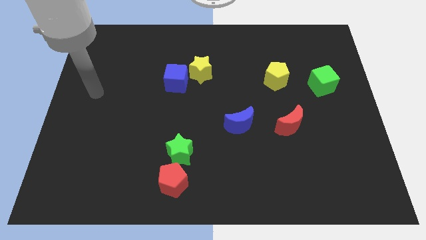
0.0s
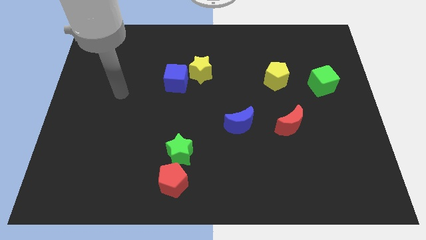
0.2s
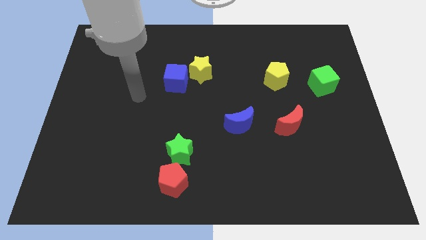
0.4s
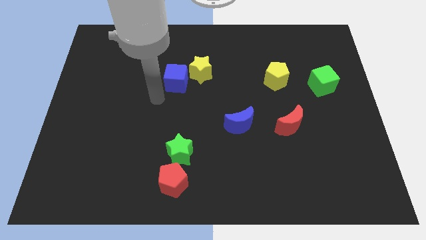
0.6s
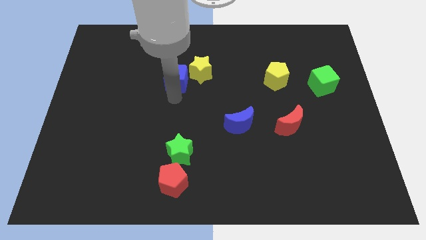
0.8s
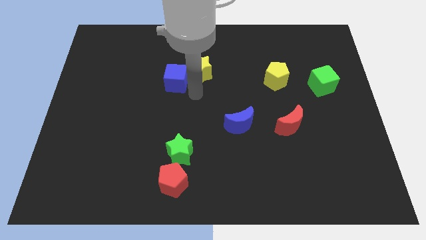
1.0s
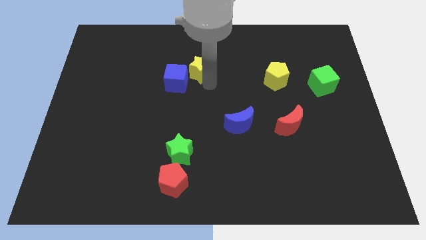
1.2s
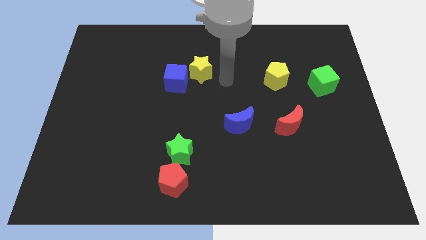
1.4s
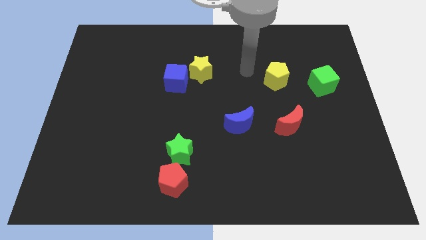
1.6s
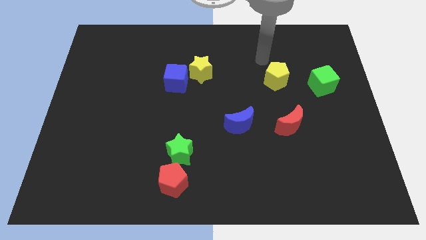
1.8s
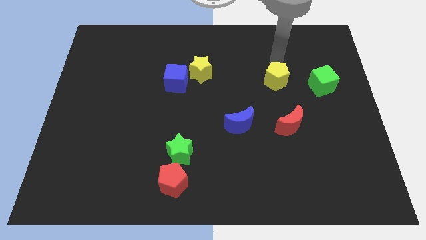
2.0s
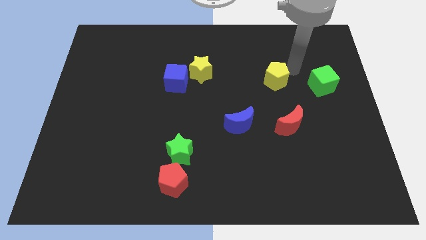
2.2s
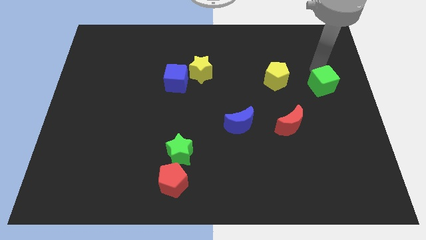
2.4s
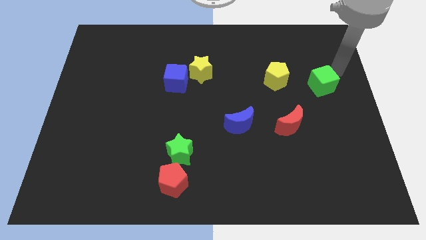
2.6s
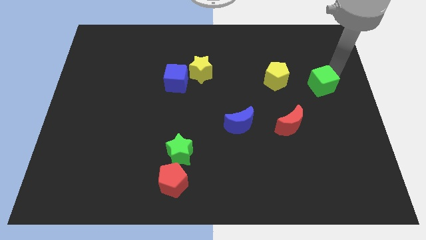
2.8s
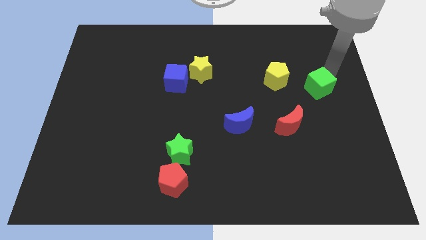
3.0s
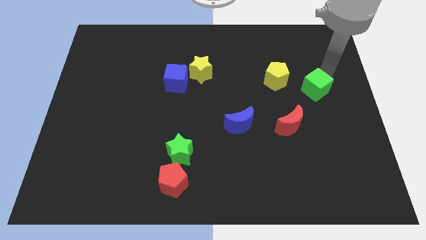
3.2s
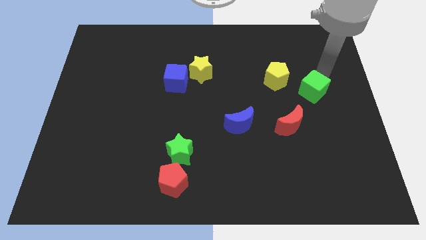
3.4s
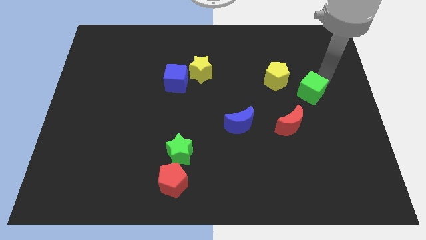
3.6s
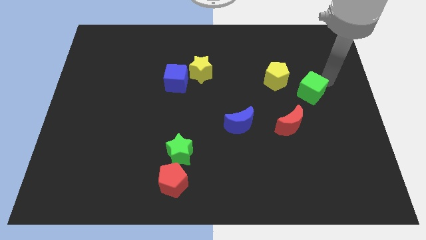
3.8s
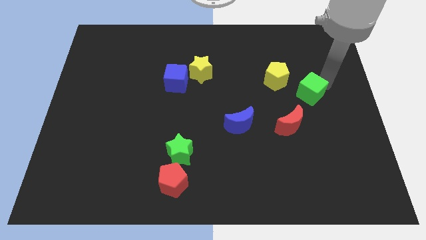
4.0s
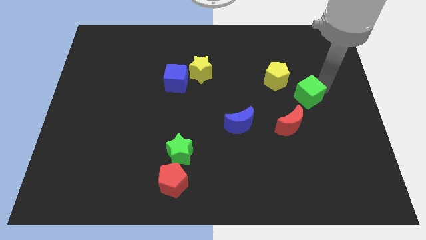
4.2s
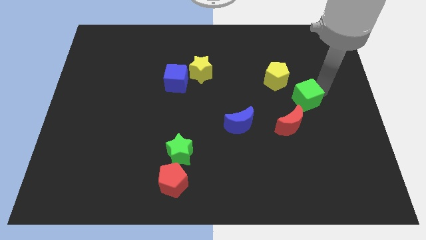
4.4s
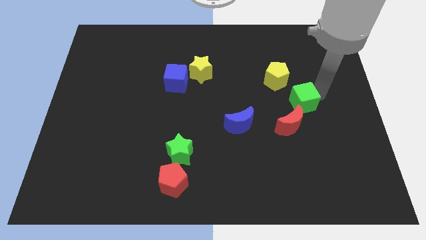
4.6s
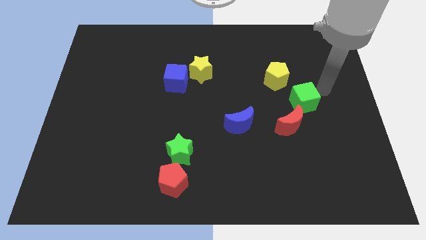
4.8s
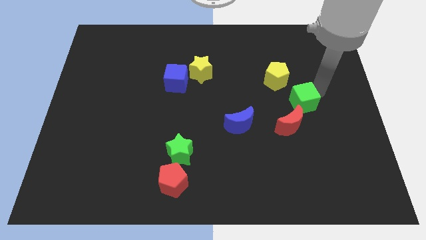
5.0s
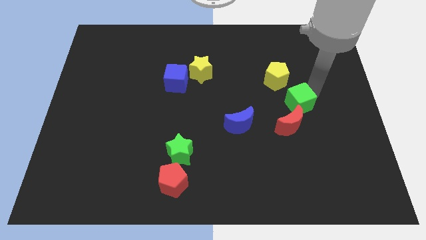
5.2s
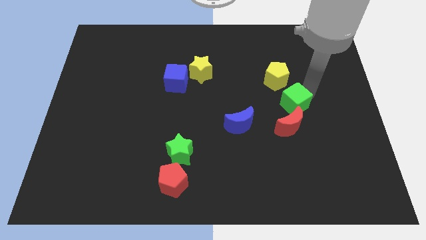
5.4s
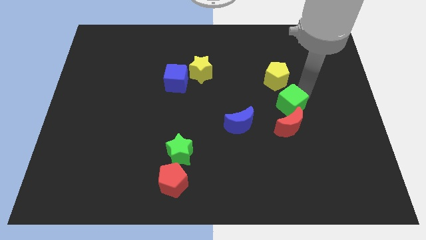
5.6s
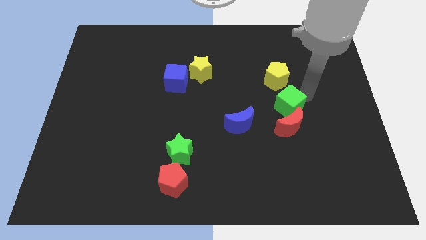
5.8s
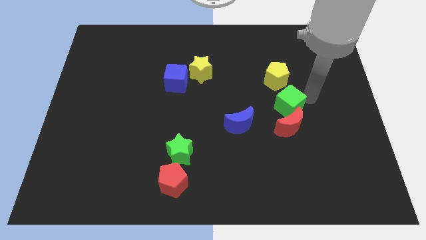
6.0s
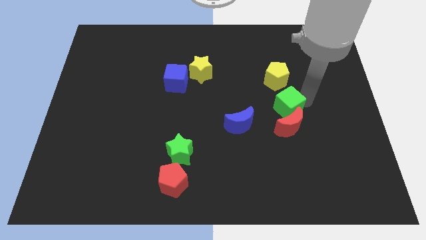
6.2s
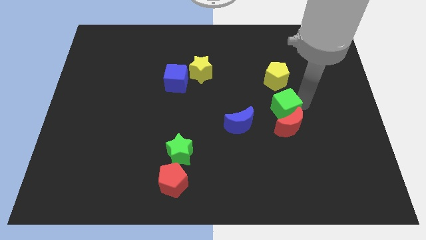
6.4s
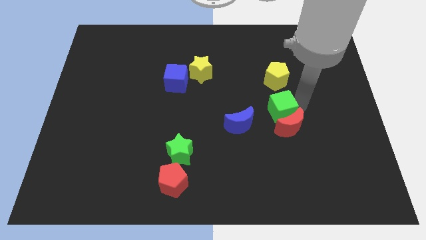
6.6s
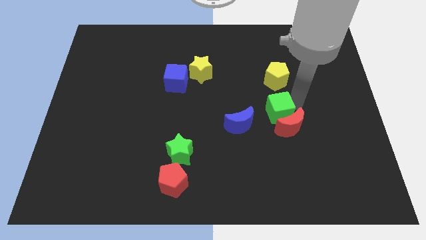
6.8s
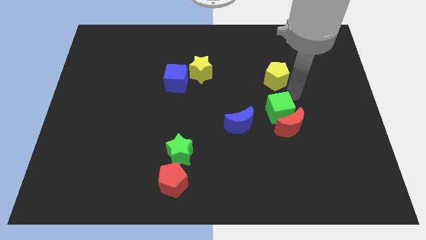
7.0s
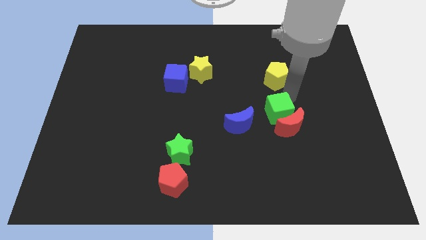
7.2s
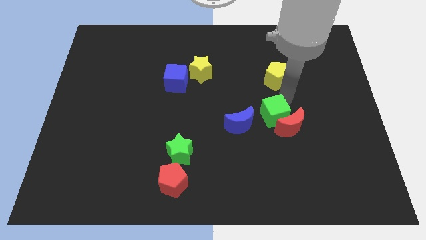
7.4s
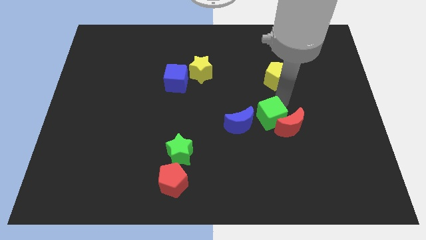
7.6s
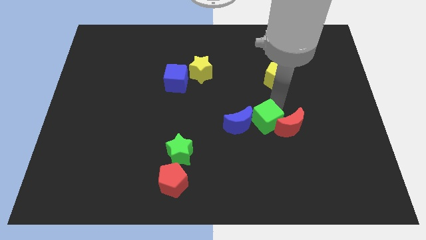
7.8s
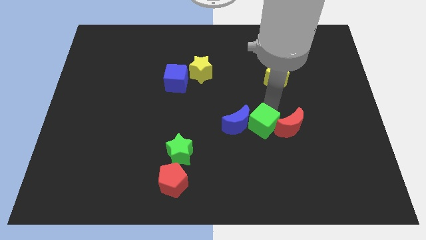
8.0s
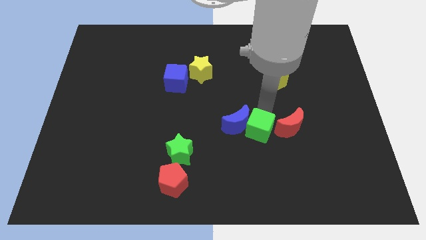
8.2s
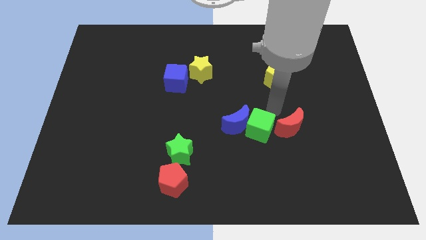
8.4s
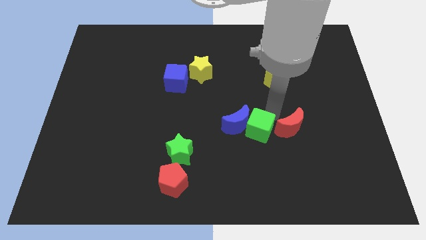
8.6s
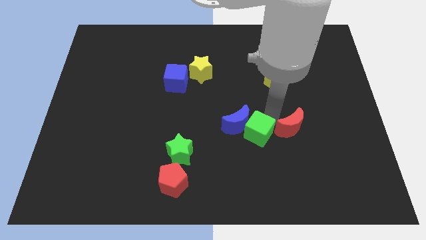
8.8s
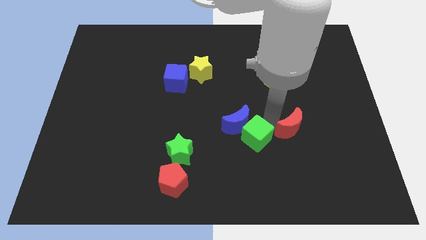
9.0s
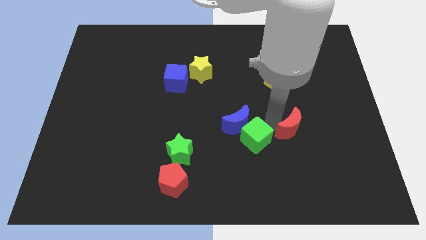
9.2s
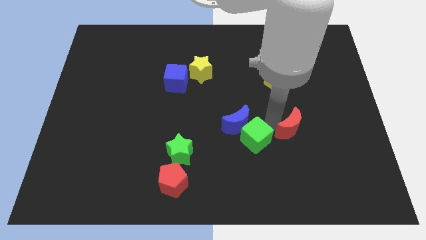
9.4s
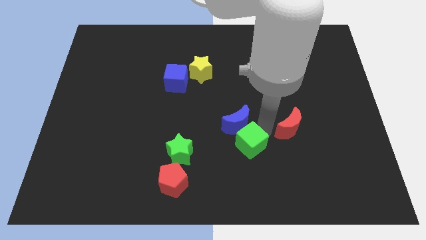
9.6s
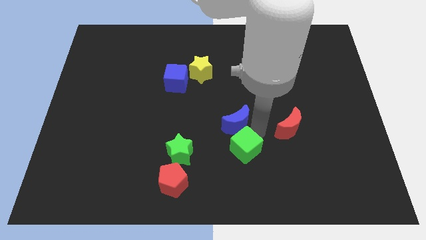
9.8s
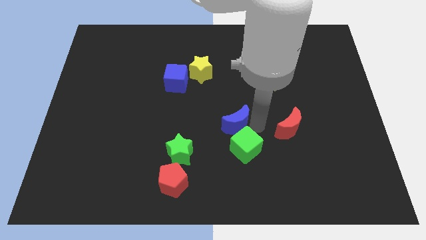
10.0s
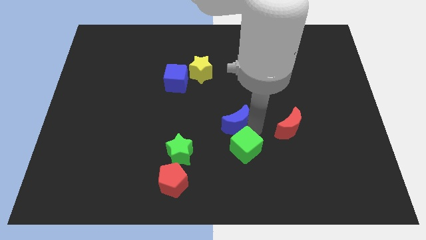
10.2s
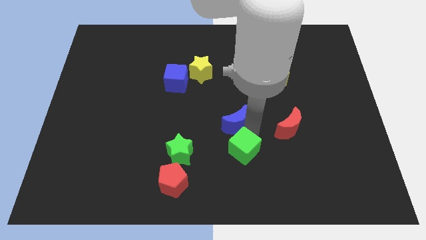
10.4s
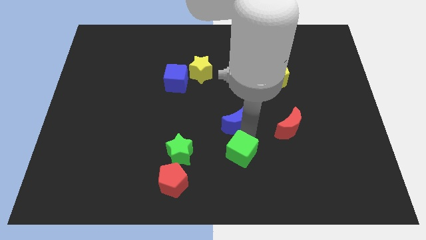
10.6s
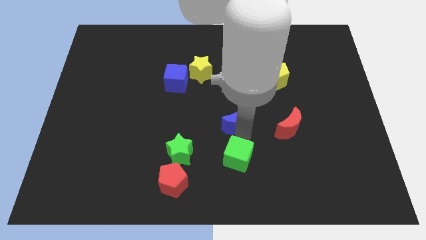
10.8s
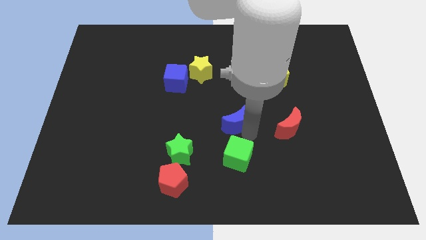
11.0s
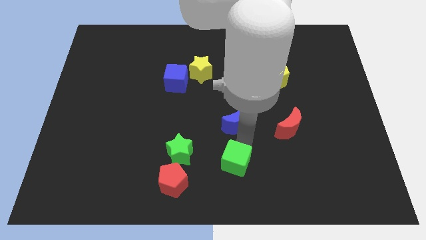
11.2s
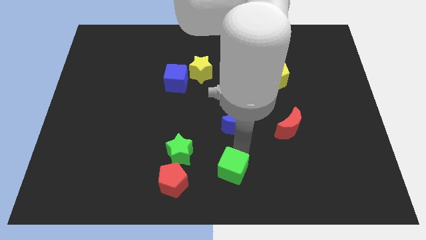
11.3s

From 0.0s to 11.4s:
push the green cube right of the red pentagon

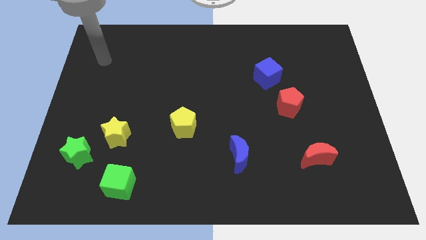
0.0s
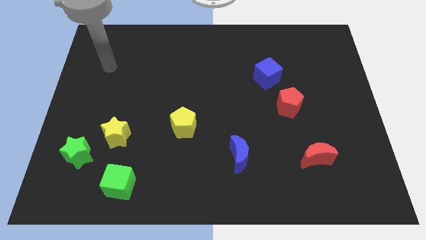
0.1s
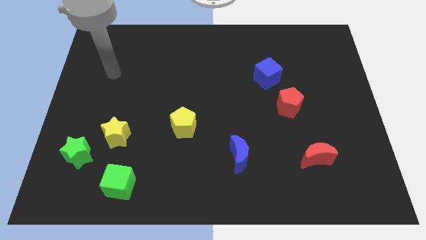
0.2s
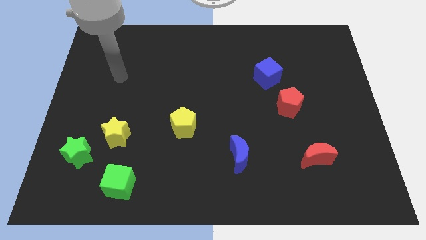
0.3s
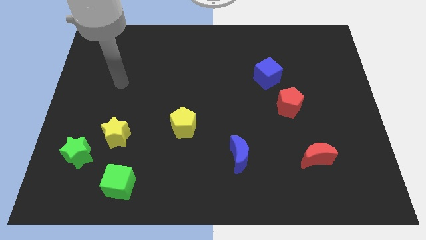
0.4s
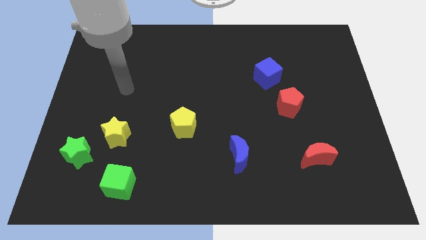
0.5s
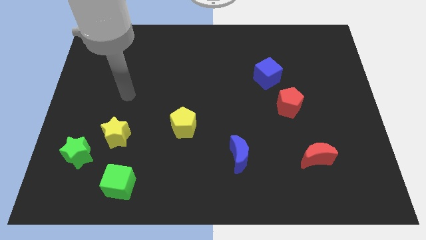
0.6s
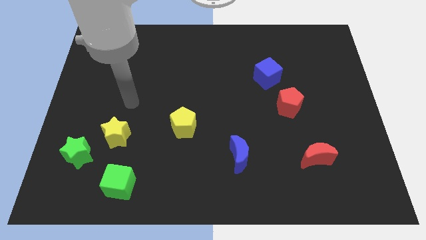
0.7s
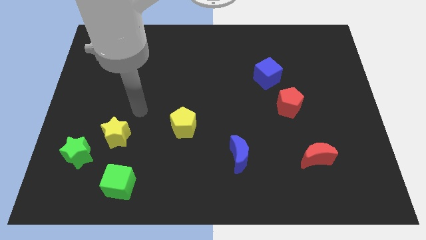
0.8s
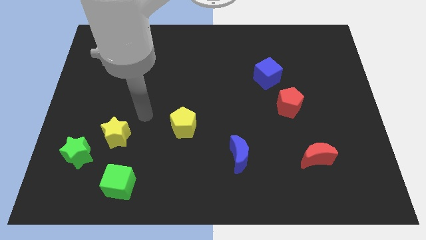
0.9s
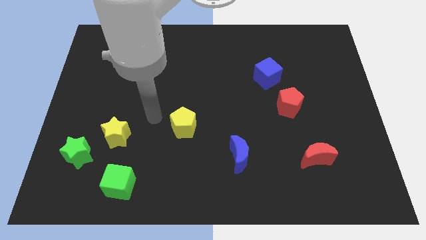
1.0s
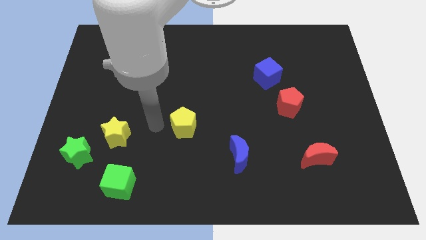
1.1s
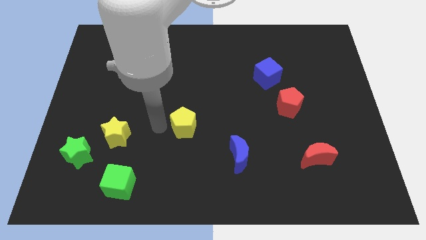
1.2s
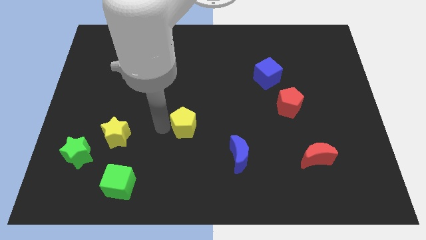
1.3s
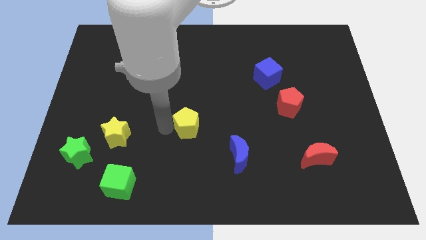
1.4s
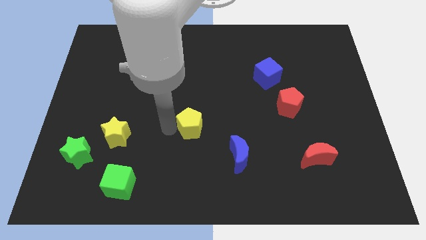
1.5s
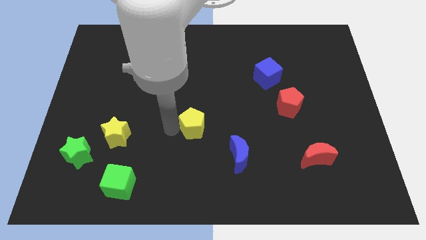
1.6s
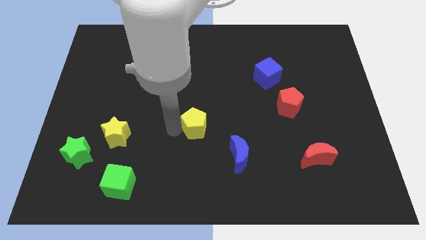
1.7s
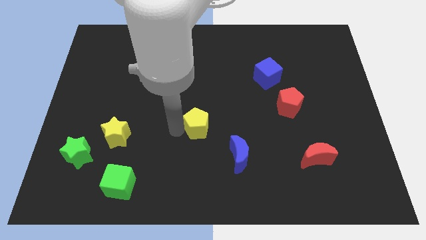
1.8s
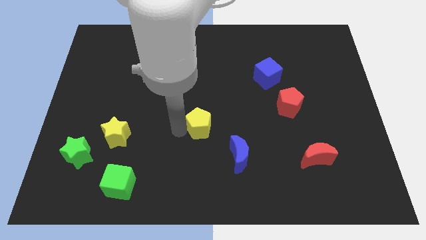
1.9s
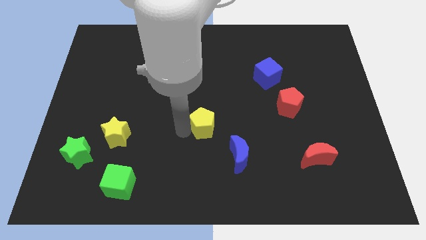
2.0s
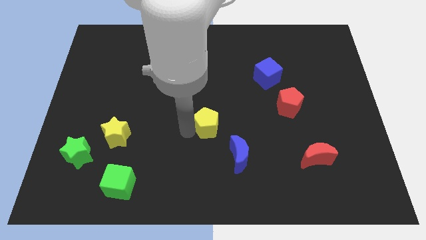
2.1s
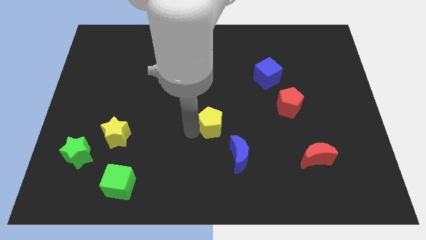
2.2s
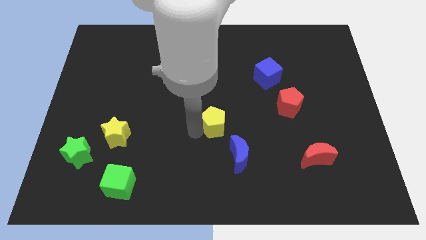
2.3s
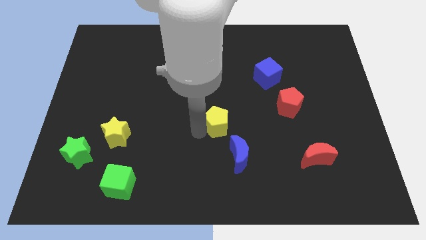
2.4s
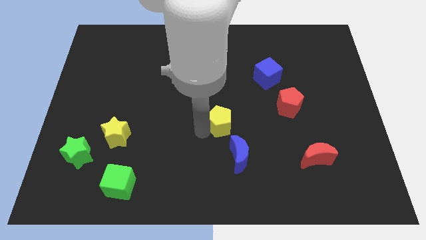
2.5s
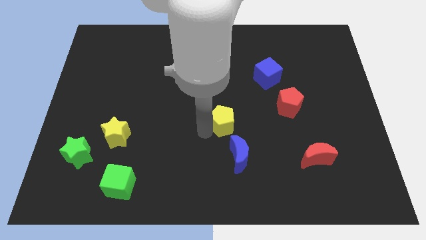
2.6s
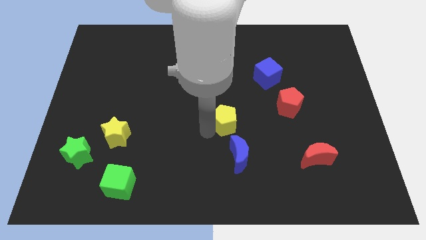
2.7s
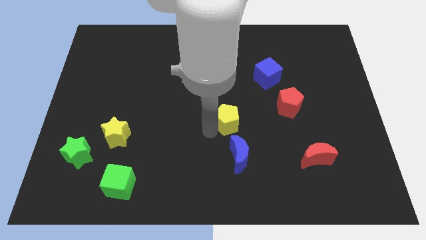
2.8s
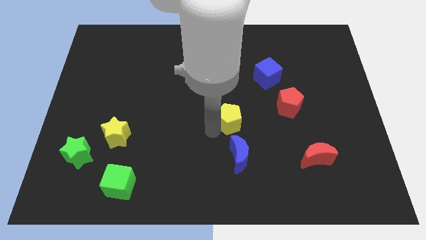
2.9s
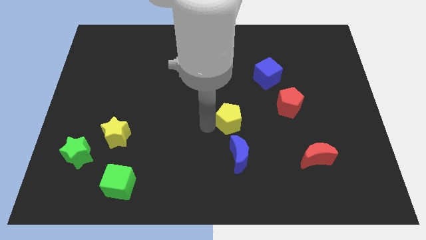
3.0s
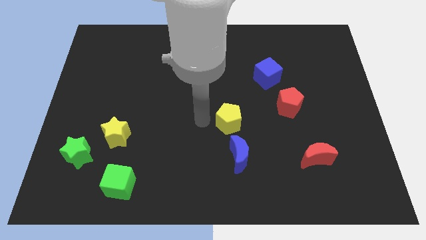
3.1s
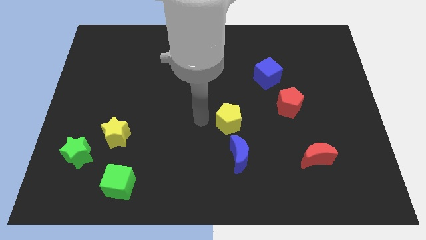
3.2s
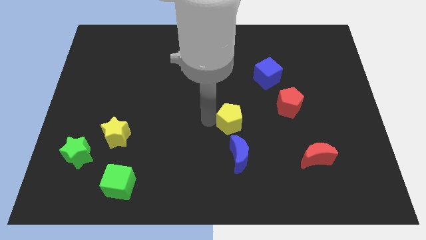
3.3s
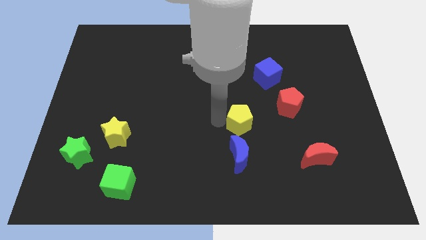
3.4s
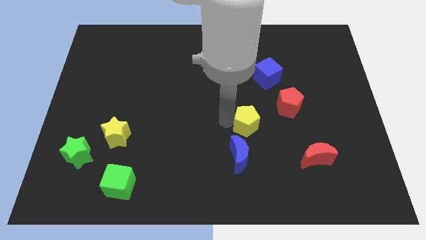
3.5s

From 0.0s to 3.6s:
move the yellow pentagon to the bottom left side of the red pentagon
